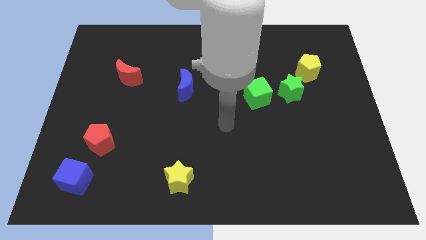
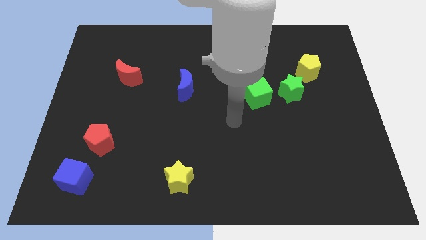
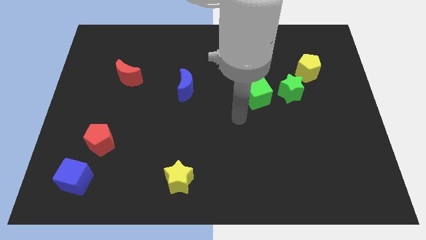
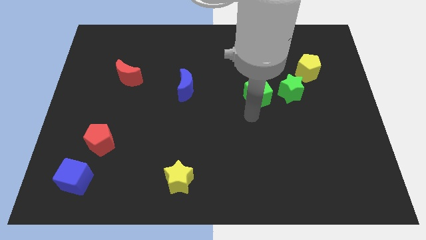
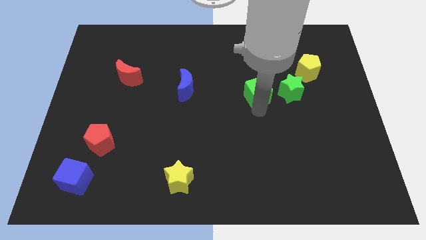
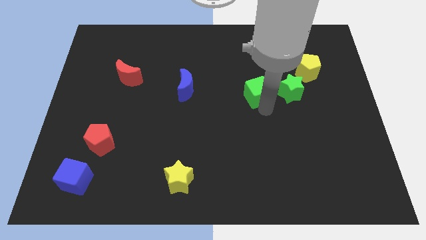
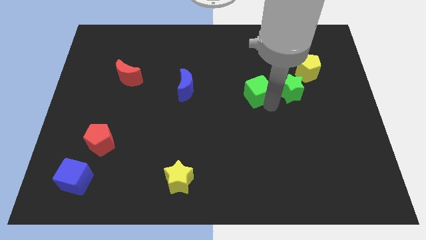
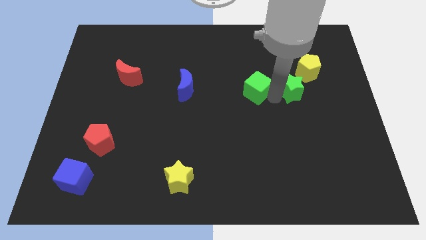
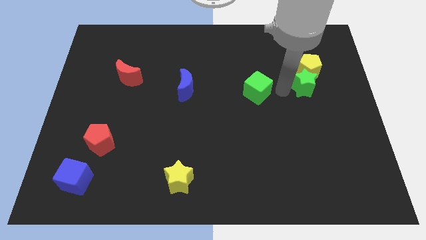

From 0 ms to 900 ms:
move the green cube away from the green star

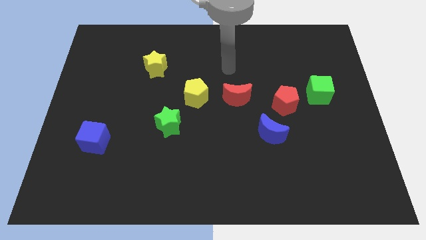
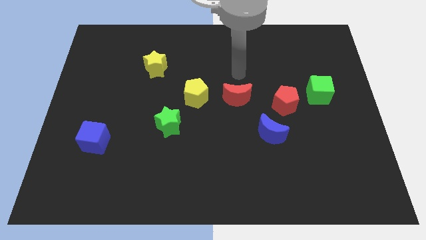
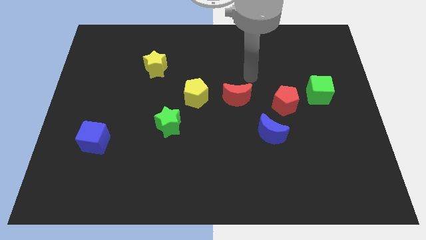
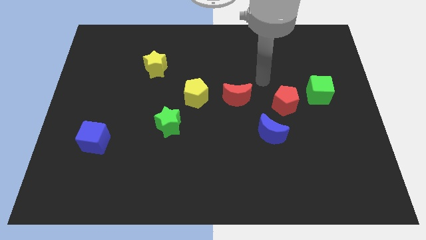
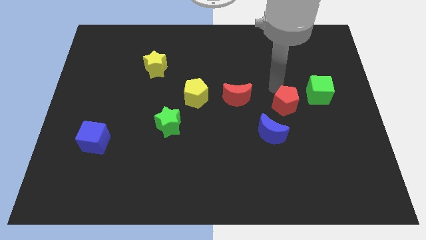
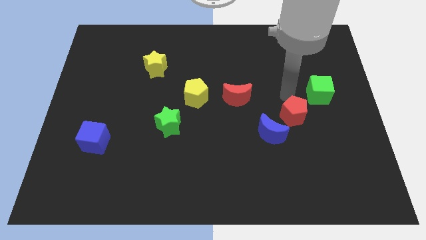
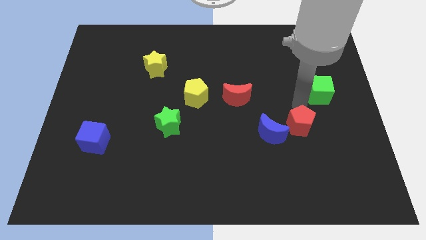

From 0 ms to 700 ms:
move the green cube away from the red pentagon

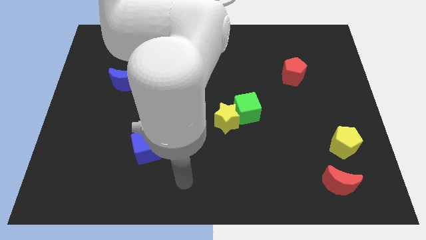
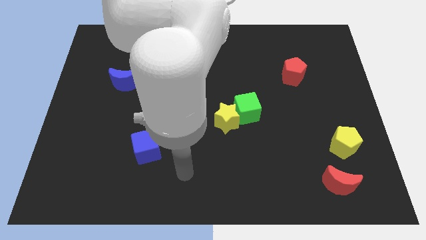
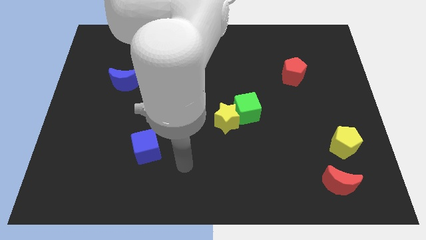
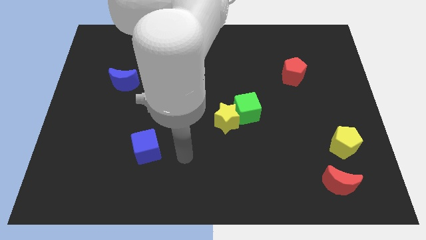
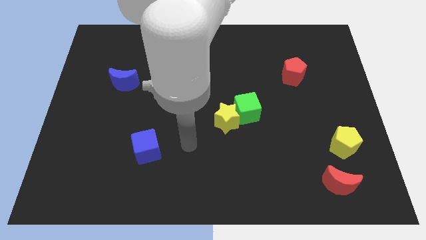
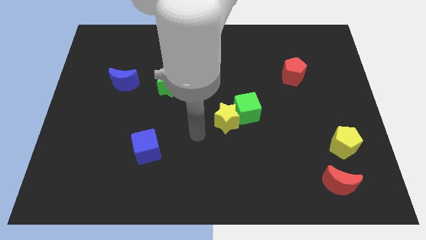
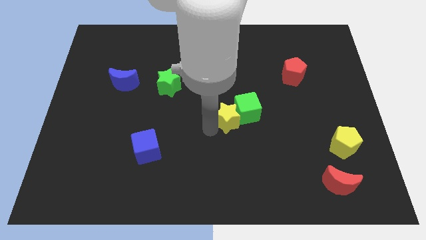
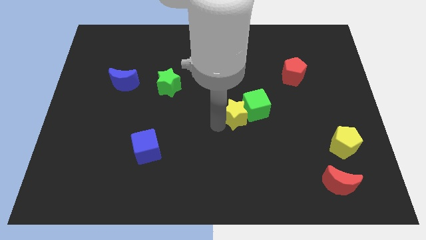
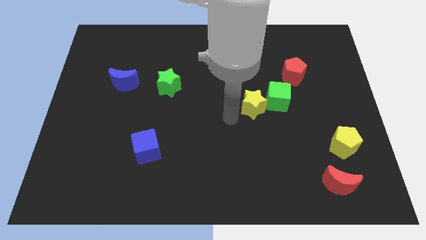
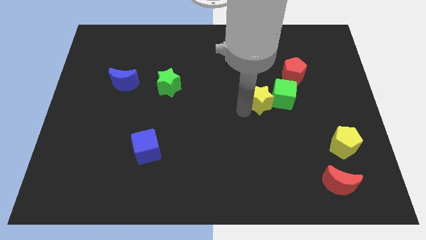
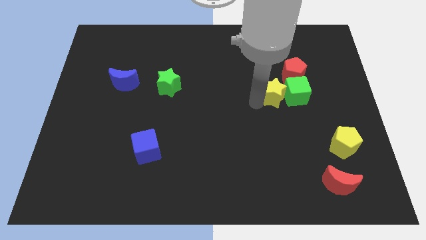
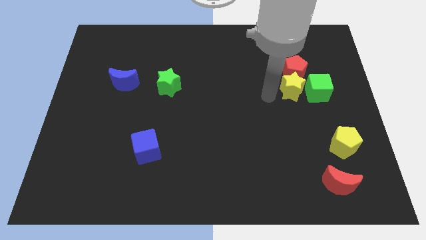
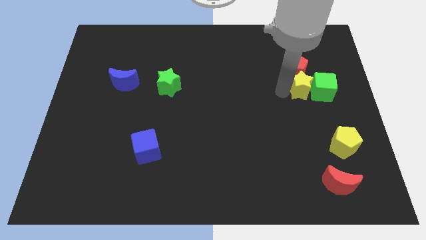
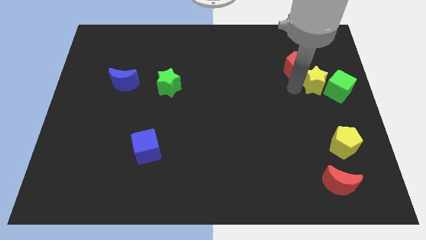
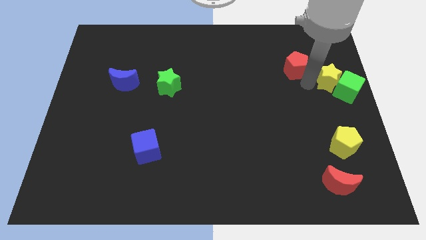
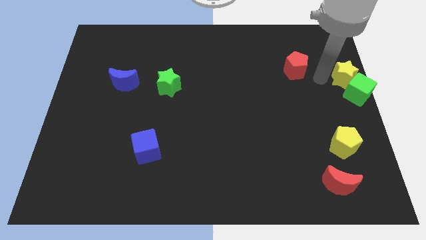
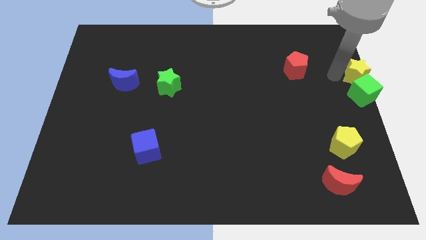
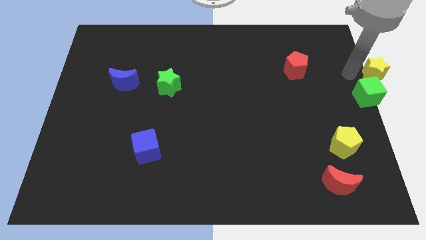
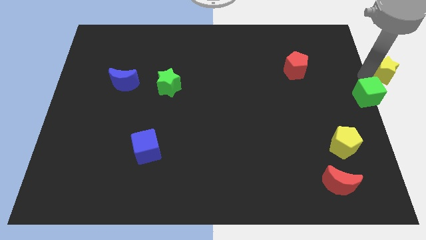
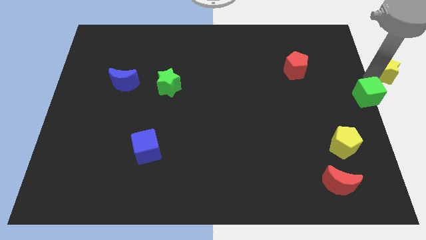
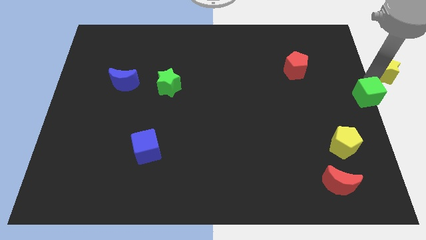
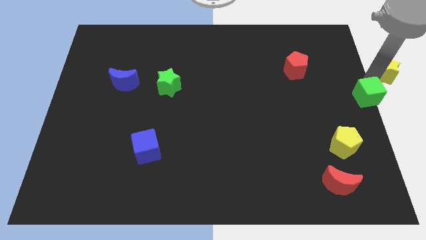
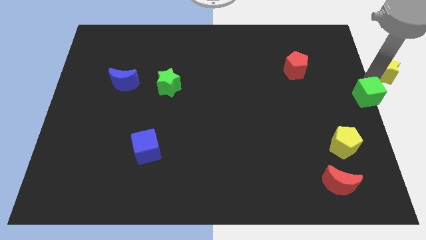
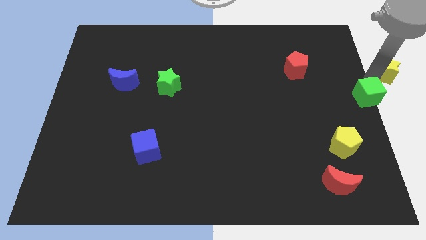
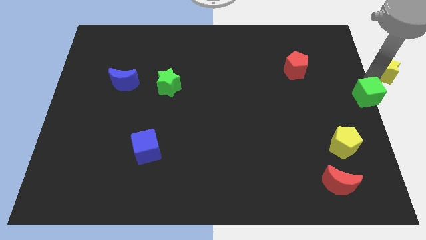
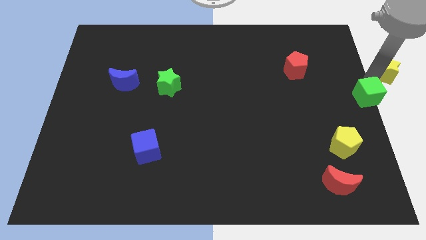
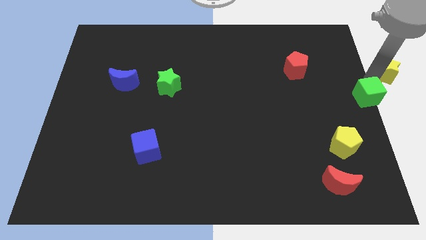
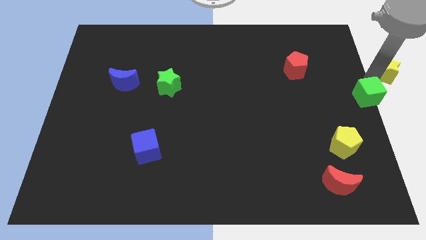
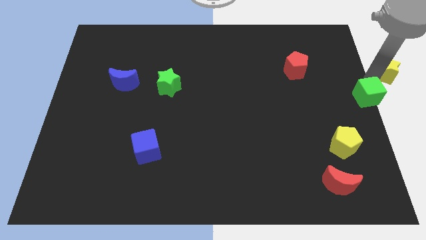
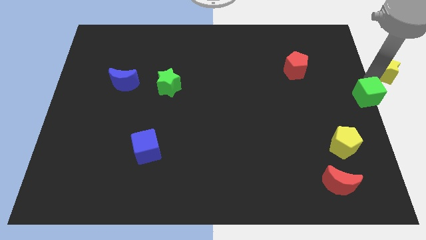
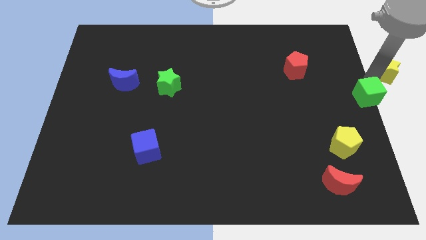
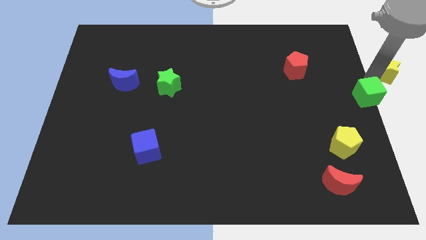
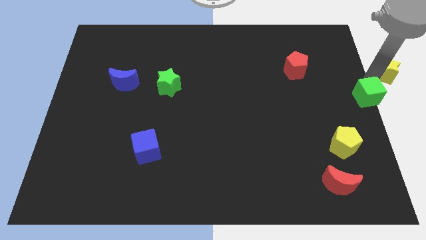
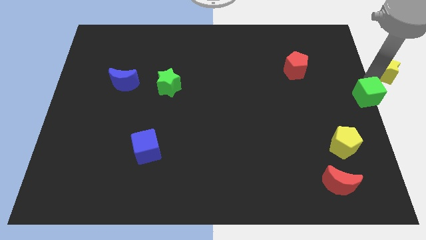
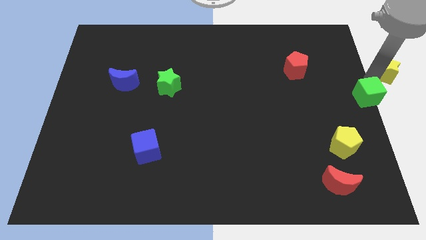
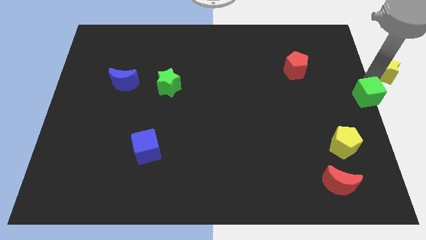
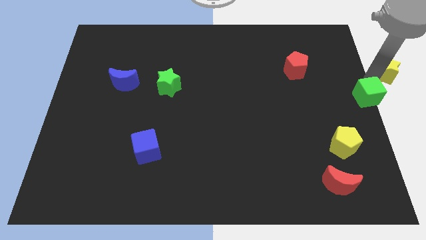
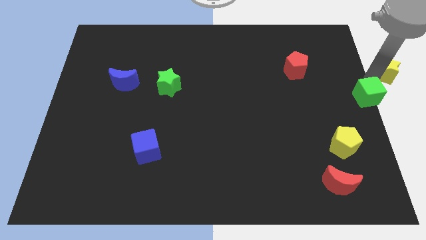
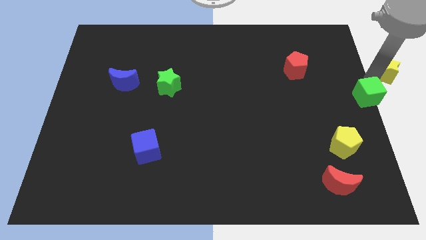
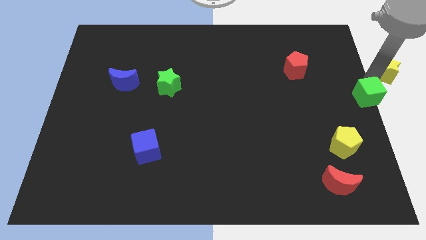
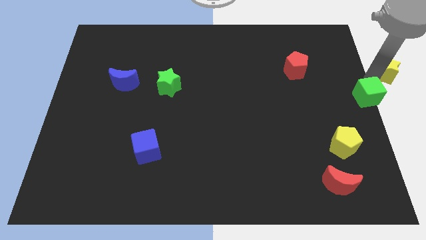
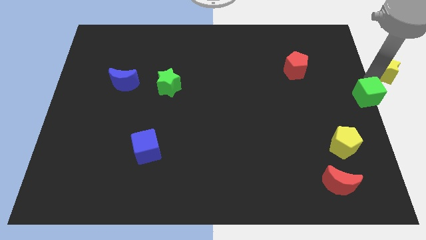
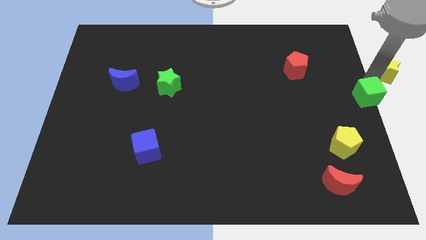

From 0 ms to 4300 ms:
separate the green cube from the yellow star

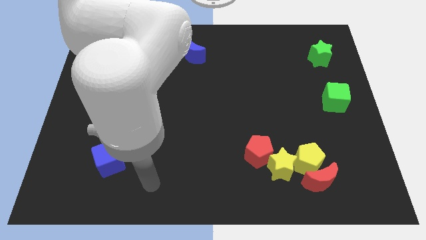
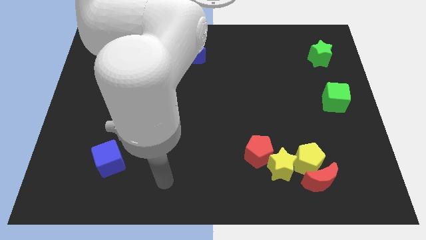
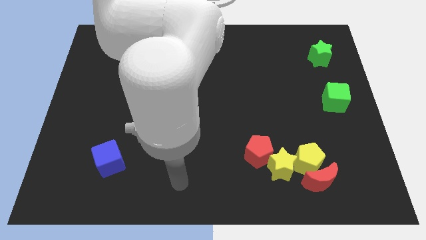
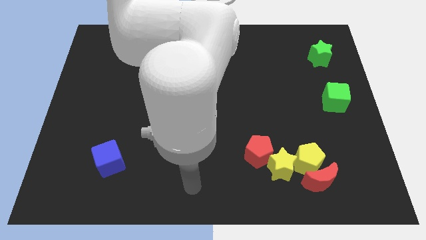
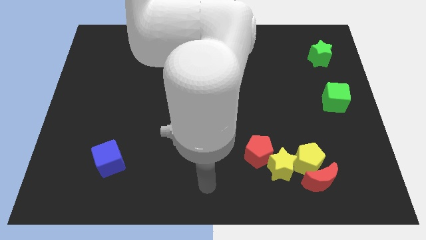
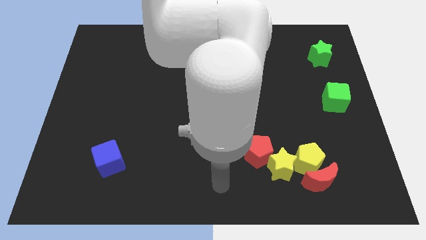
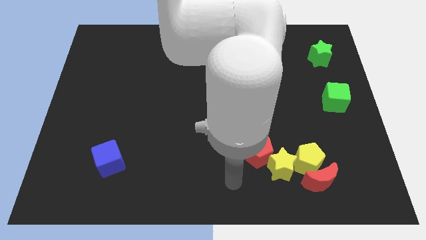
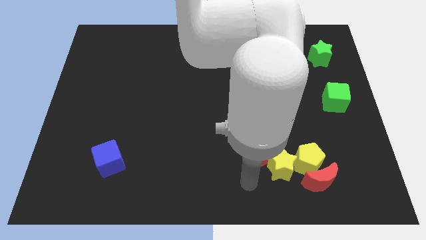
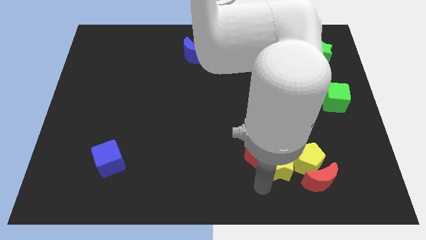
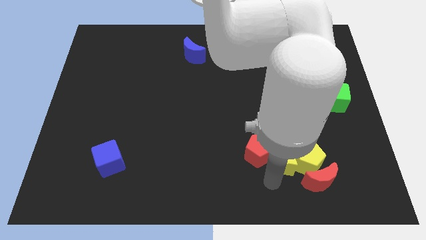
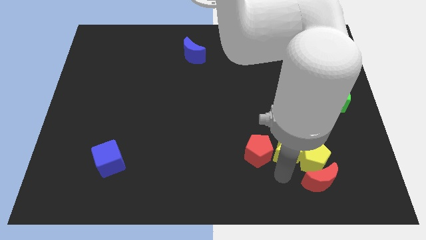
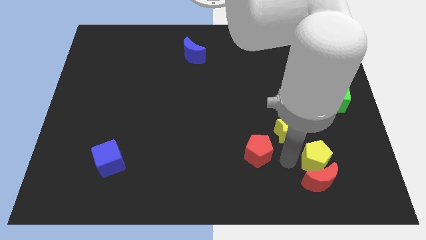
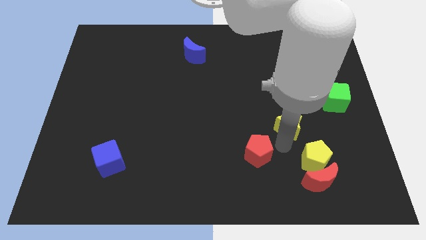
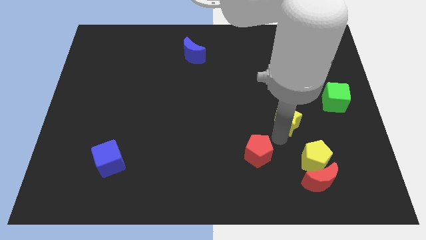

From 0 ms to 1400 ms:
pull the red pentagon apart from the yellow star

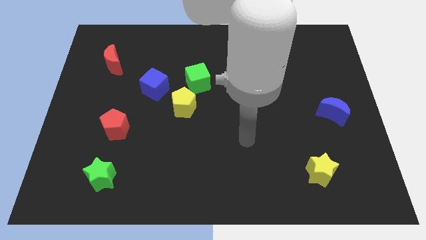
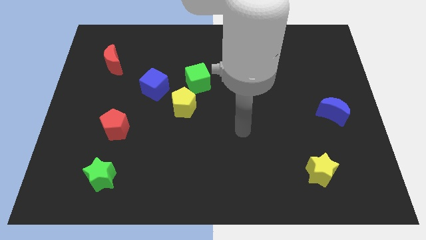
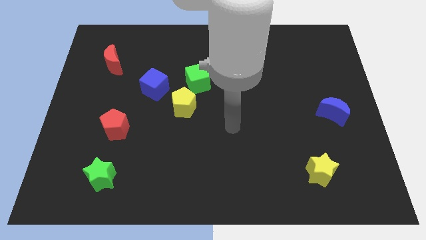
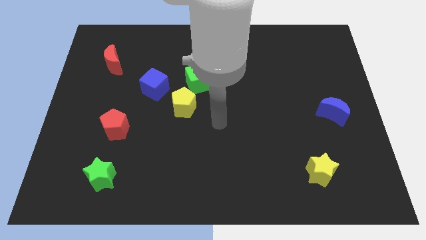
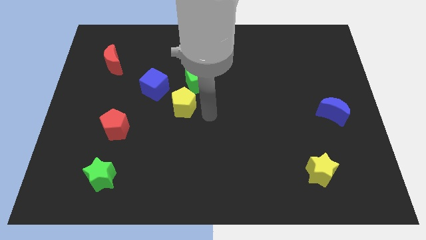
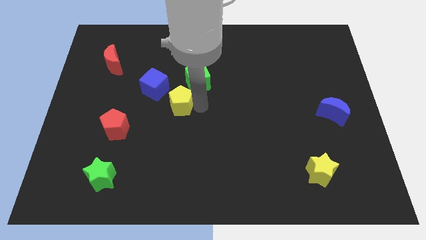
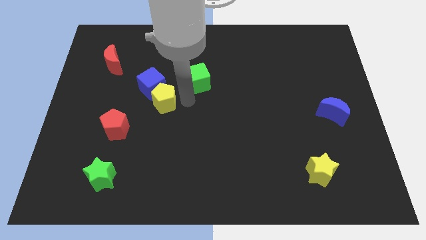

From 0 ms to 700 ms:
separate the green cube from the yellow pentagon

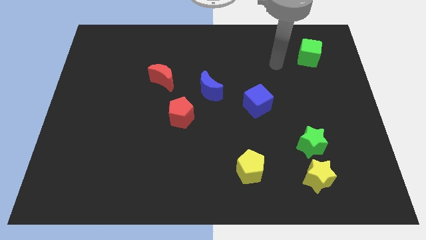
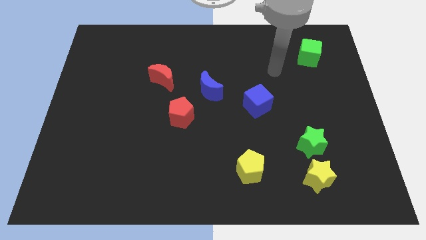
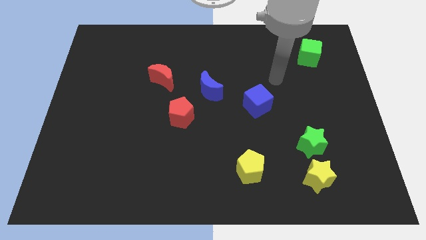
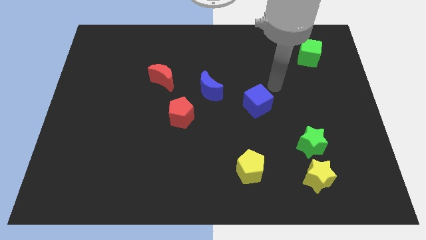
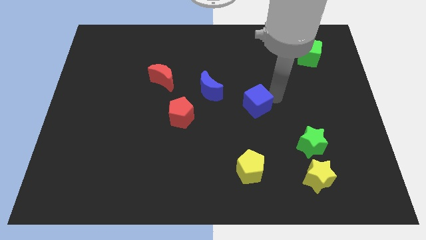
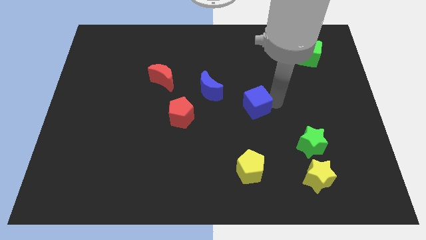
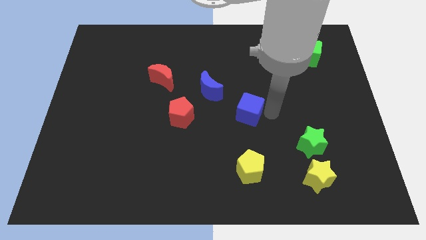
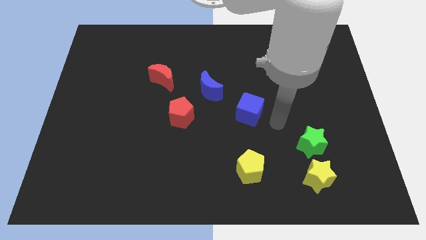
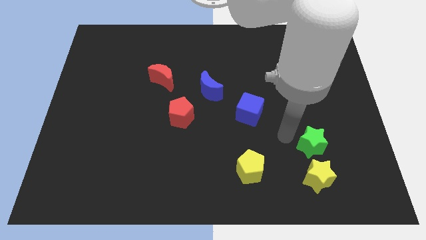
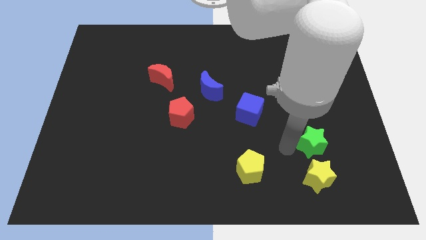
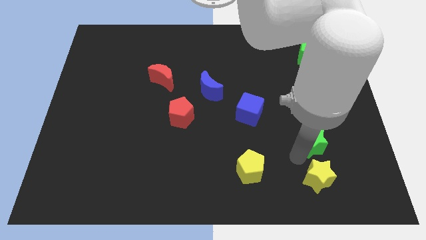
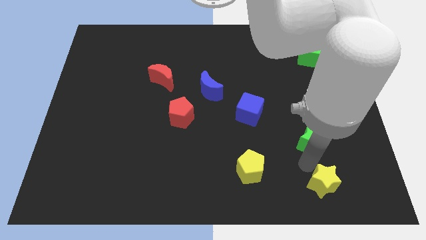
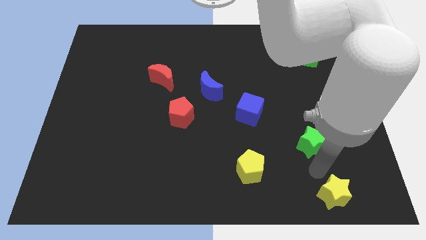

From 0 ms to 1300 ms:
move the green star away from the yellow star
